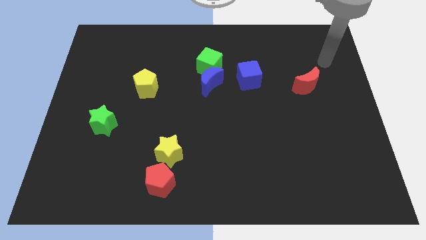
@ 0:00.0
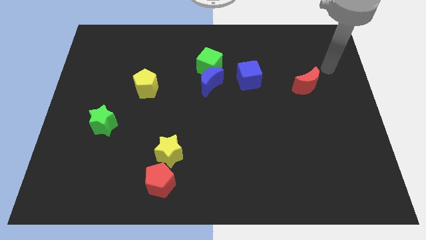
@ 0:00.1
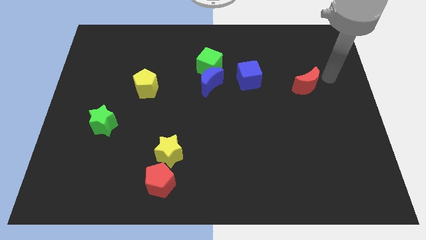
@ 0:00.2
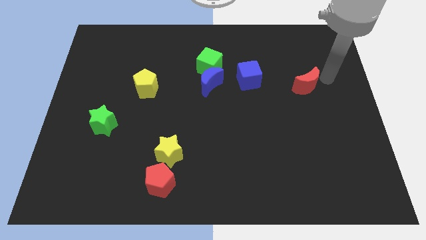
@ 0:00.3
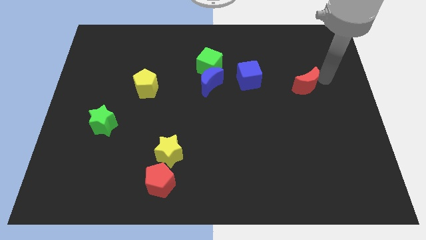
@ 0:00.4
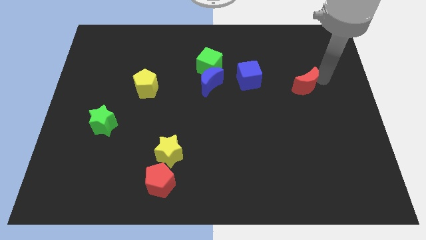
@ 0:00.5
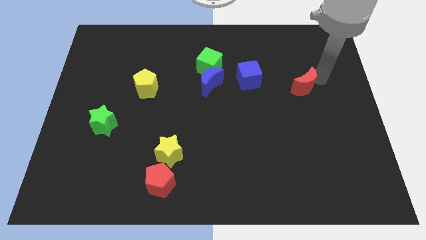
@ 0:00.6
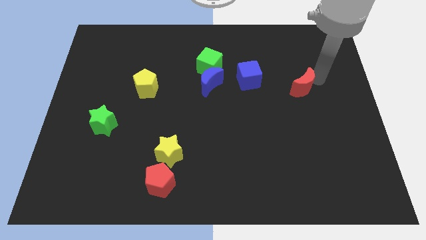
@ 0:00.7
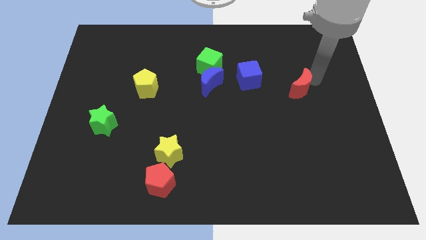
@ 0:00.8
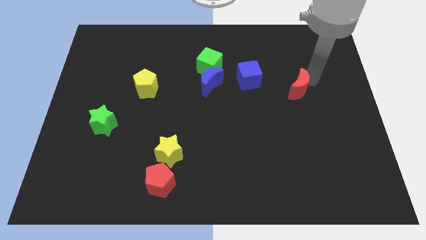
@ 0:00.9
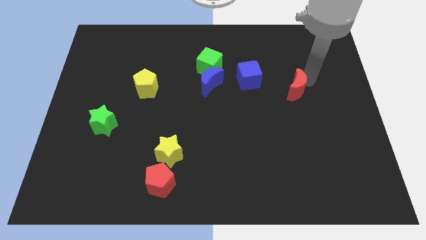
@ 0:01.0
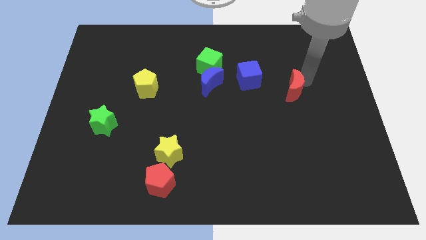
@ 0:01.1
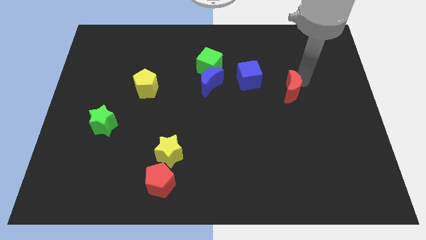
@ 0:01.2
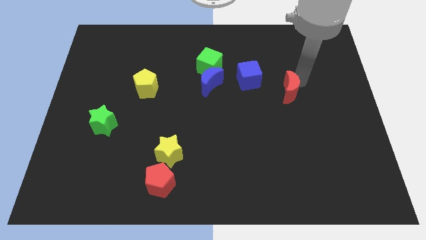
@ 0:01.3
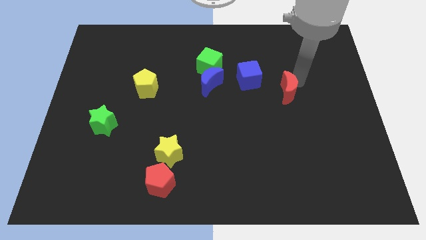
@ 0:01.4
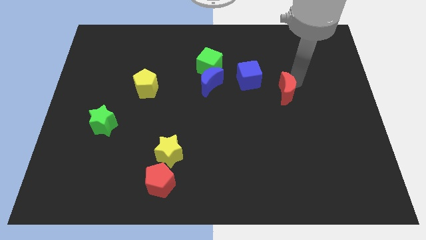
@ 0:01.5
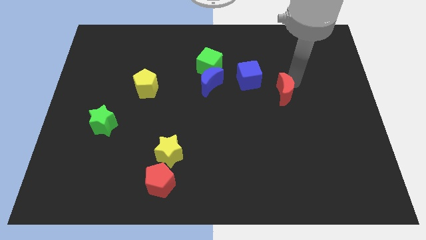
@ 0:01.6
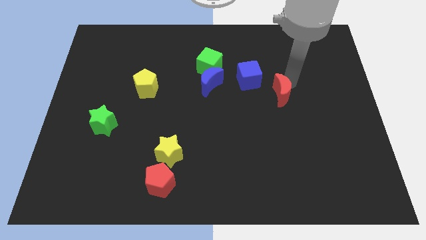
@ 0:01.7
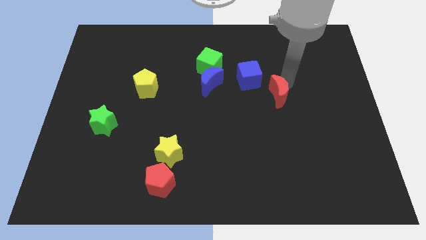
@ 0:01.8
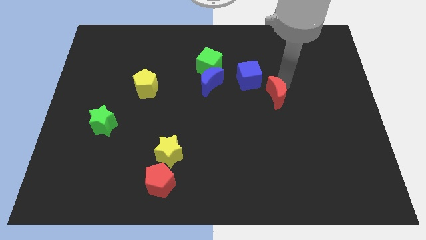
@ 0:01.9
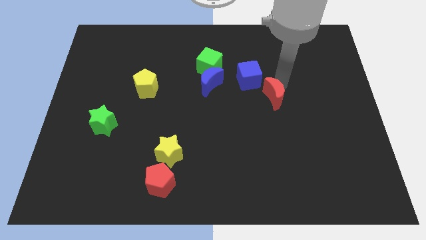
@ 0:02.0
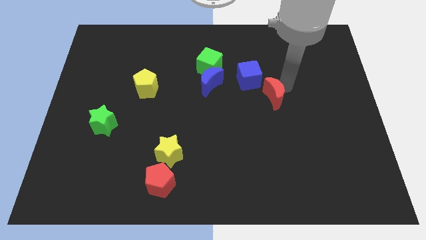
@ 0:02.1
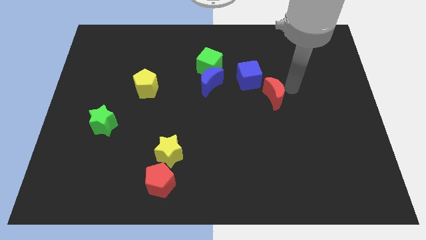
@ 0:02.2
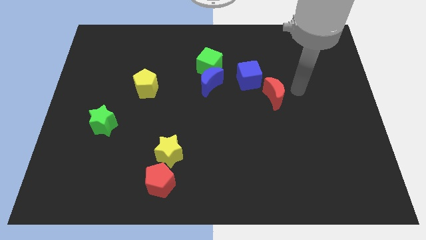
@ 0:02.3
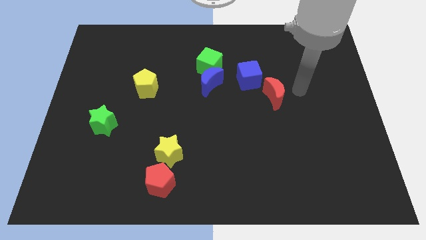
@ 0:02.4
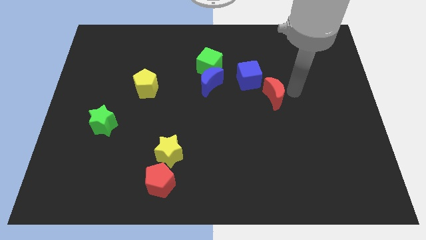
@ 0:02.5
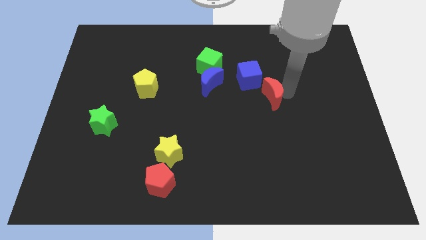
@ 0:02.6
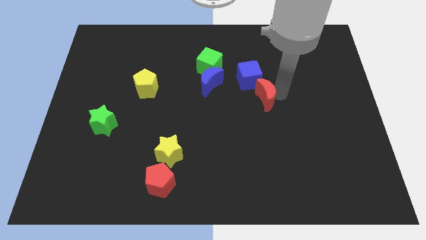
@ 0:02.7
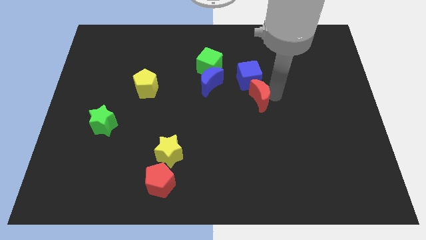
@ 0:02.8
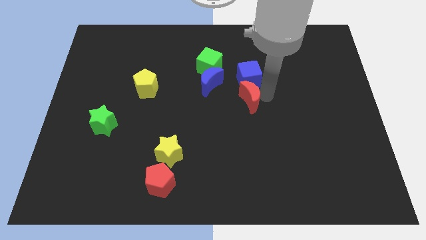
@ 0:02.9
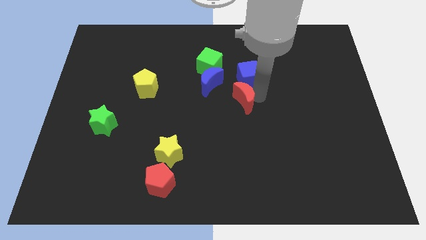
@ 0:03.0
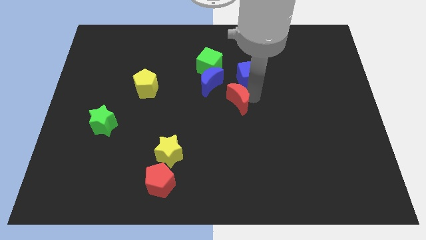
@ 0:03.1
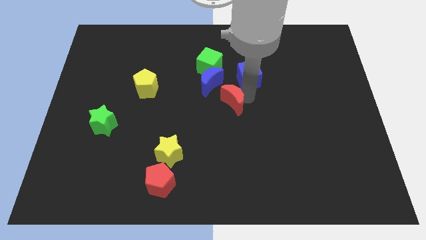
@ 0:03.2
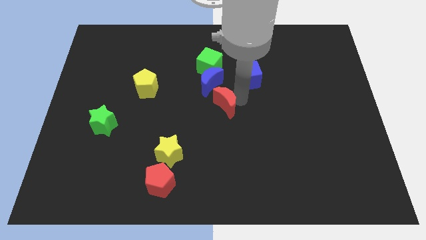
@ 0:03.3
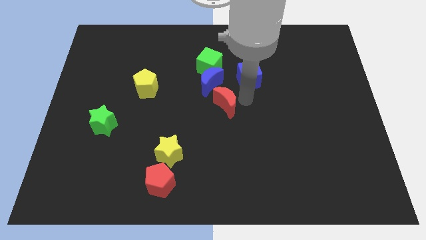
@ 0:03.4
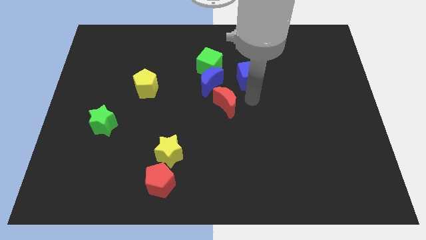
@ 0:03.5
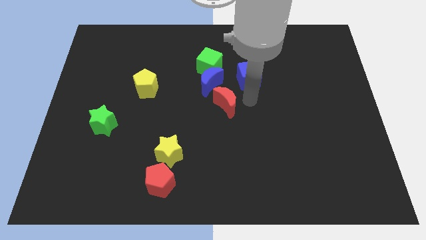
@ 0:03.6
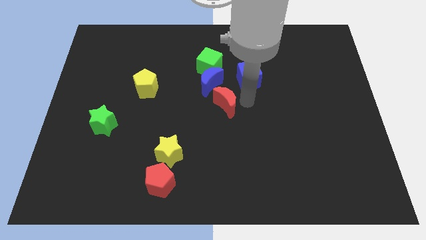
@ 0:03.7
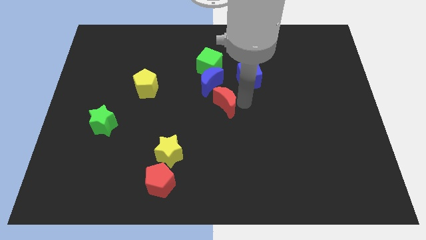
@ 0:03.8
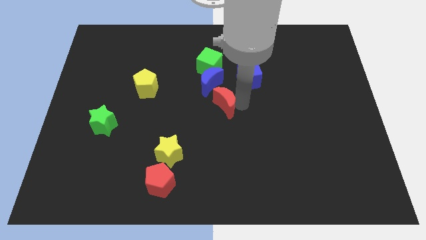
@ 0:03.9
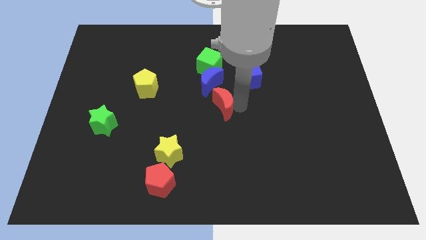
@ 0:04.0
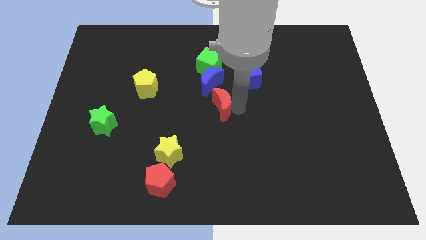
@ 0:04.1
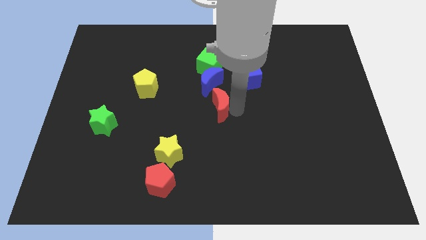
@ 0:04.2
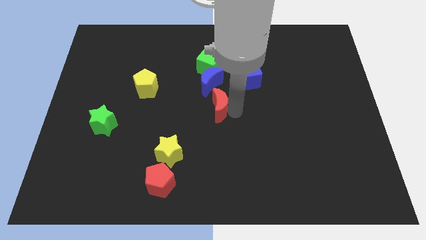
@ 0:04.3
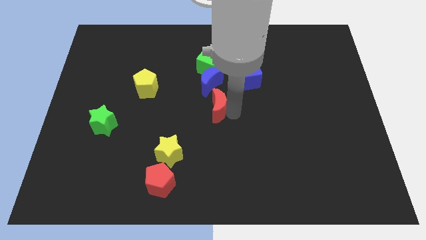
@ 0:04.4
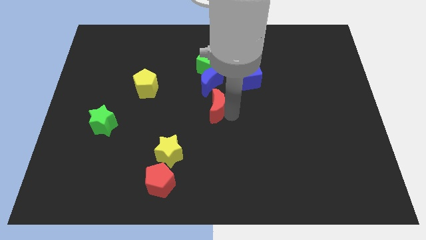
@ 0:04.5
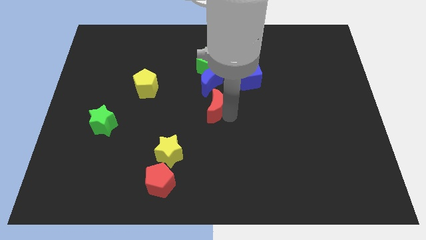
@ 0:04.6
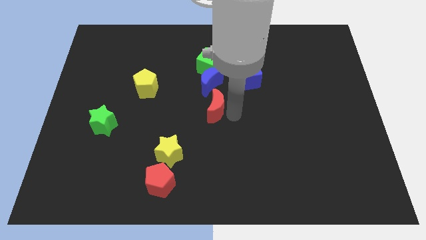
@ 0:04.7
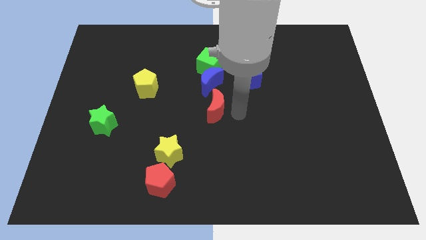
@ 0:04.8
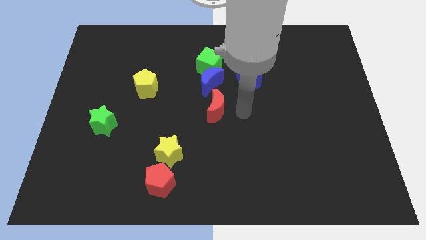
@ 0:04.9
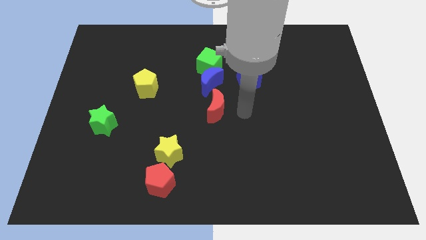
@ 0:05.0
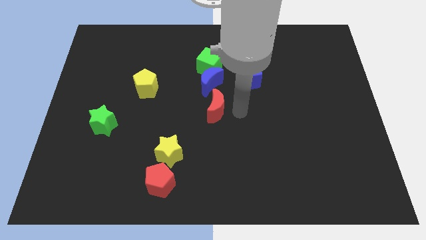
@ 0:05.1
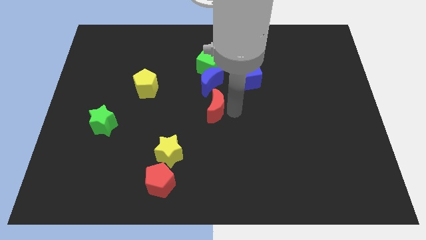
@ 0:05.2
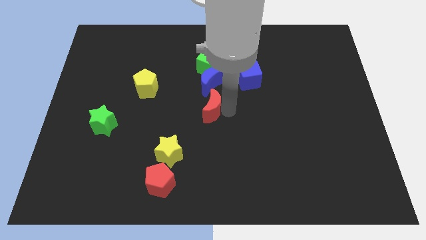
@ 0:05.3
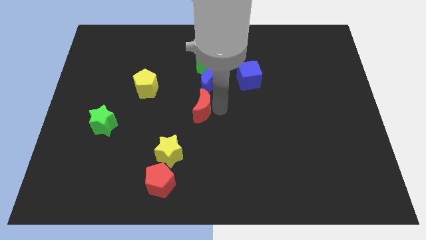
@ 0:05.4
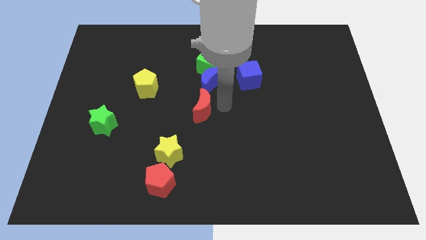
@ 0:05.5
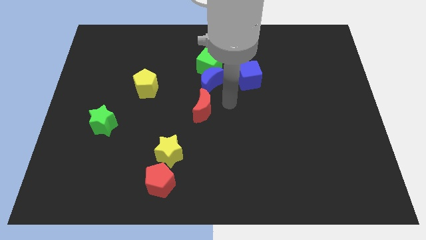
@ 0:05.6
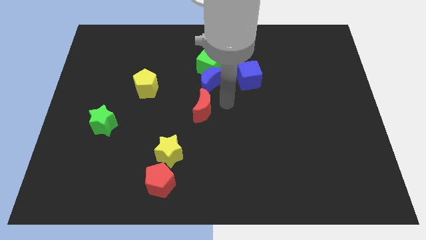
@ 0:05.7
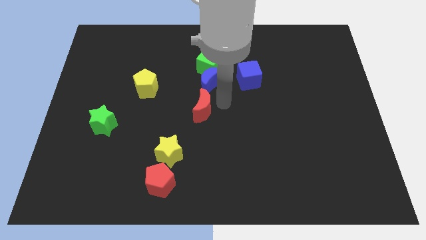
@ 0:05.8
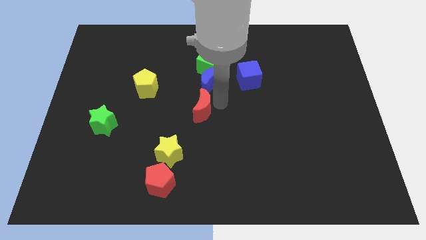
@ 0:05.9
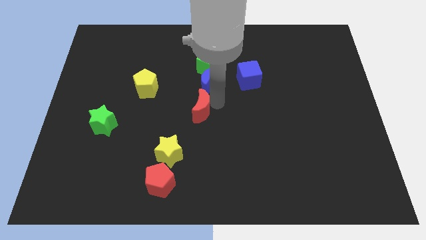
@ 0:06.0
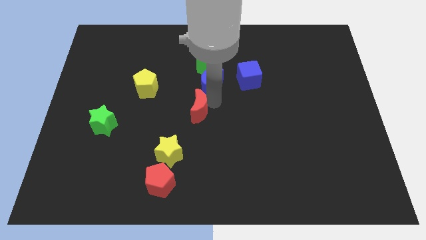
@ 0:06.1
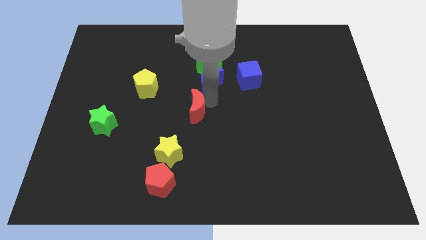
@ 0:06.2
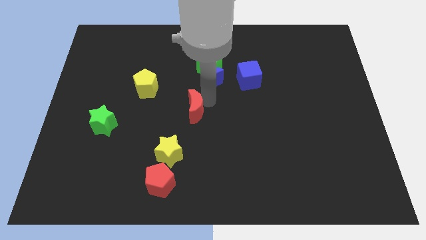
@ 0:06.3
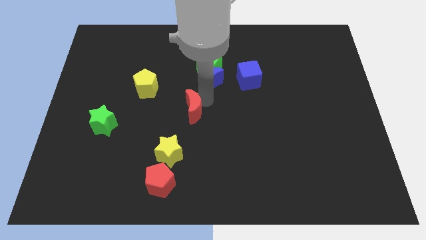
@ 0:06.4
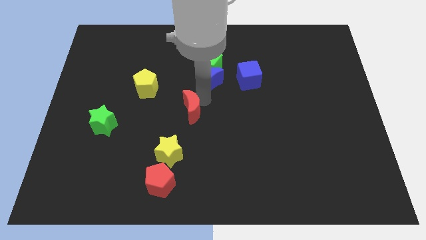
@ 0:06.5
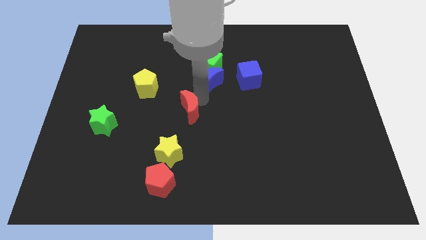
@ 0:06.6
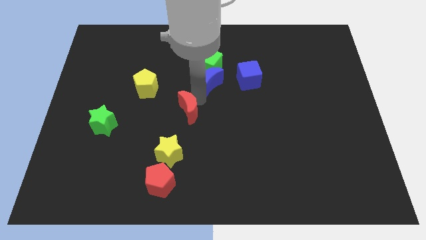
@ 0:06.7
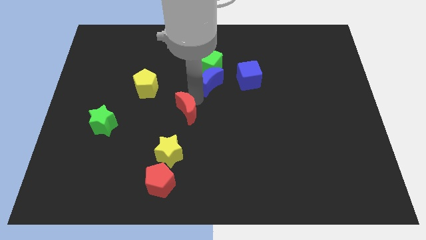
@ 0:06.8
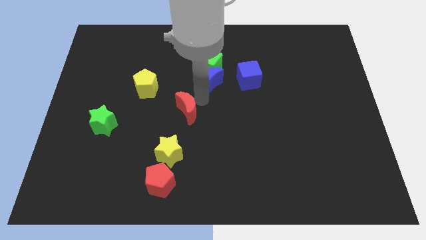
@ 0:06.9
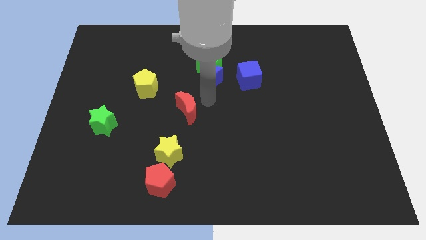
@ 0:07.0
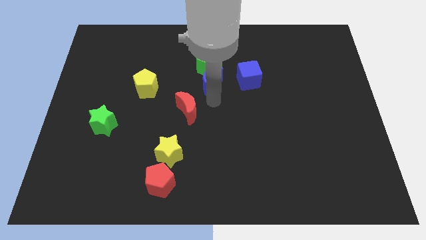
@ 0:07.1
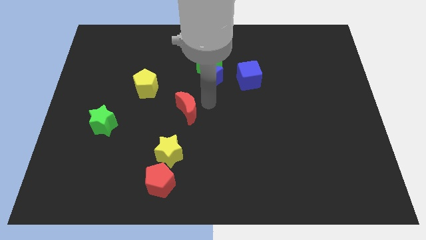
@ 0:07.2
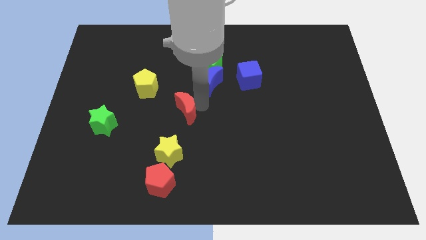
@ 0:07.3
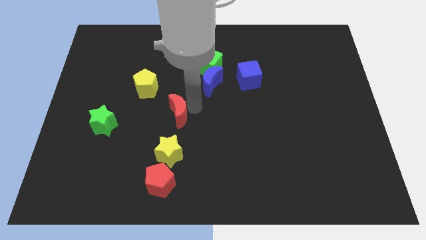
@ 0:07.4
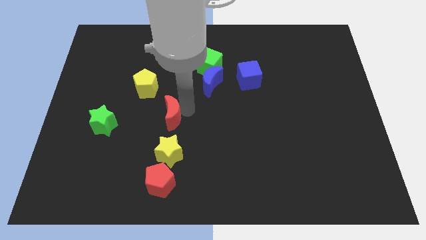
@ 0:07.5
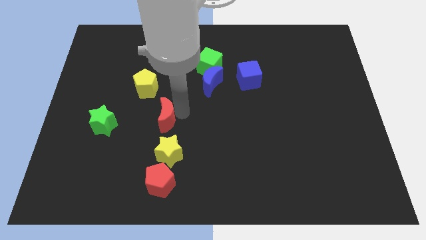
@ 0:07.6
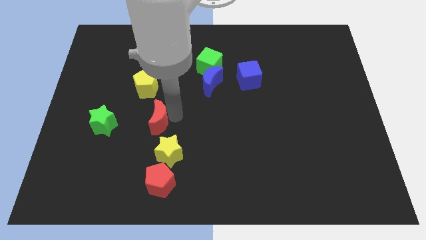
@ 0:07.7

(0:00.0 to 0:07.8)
put the red moon to the bottom of the yellow pentagon
